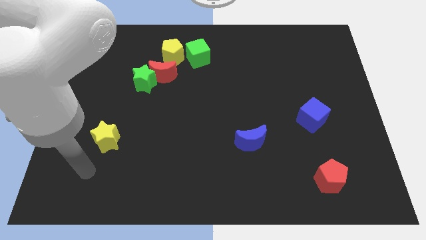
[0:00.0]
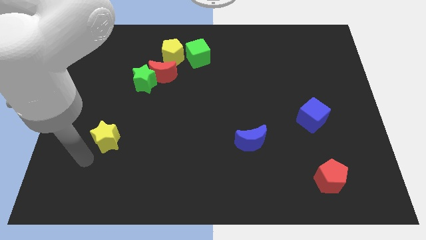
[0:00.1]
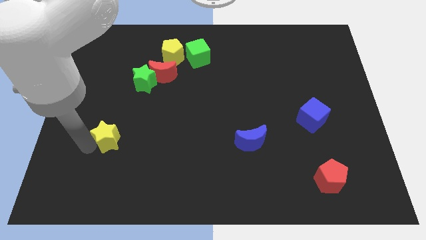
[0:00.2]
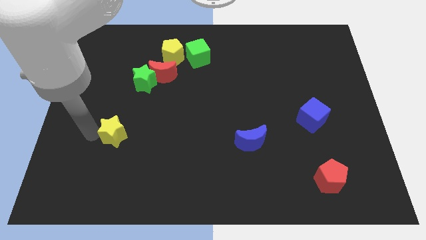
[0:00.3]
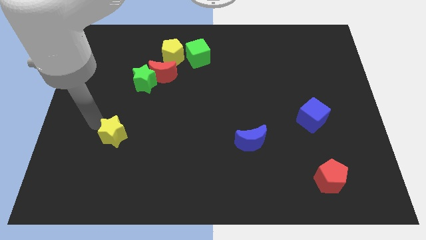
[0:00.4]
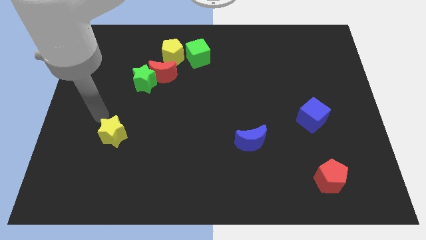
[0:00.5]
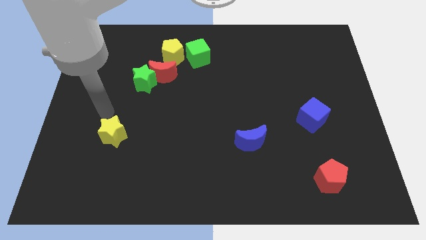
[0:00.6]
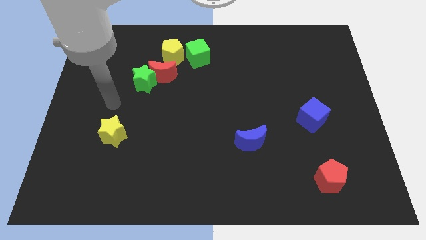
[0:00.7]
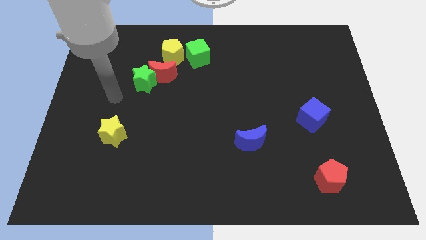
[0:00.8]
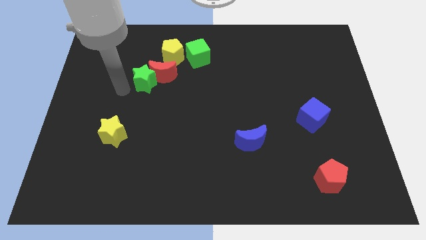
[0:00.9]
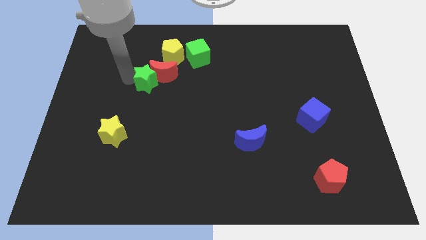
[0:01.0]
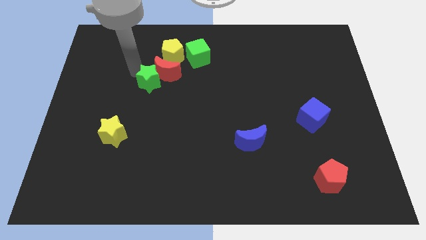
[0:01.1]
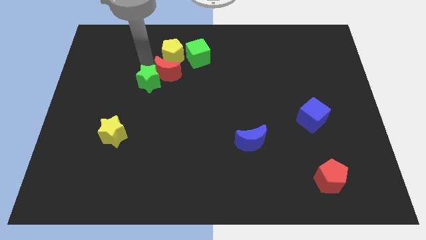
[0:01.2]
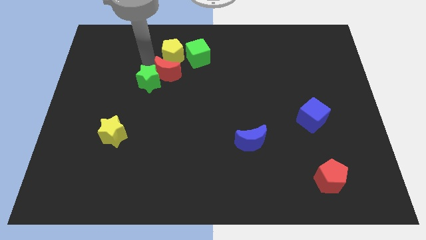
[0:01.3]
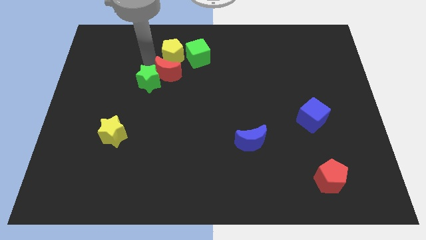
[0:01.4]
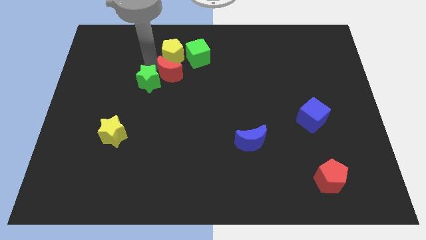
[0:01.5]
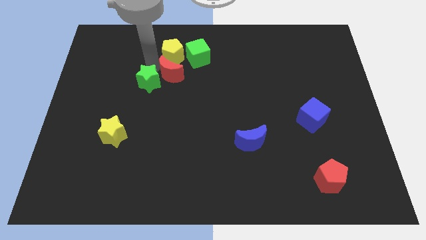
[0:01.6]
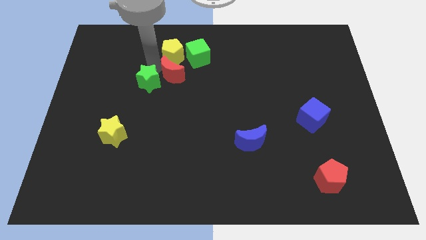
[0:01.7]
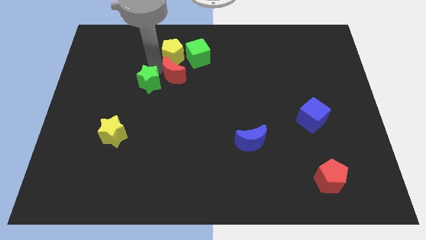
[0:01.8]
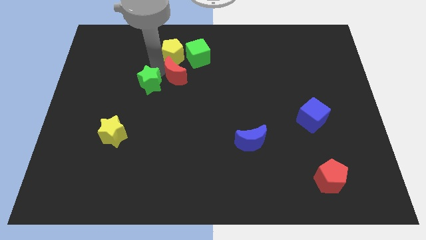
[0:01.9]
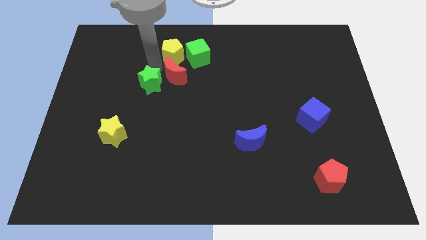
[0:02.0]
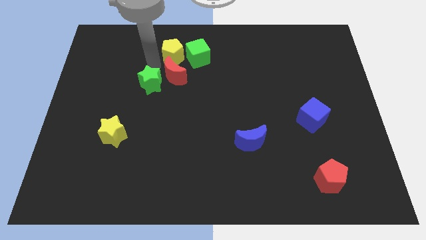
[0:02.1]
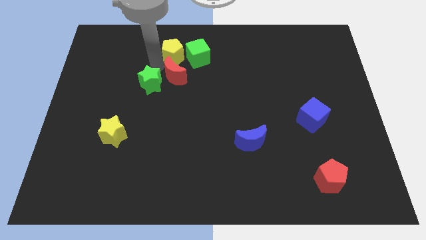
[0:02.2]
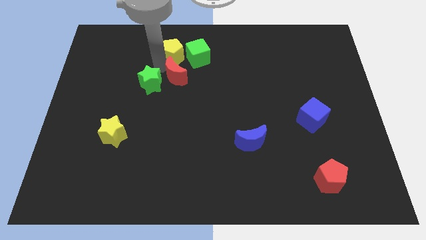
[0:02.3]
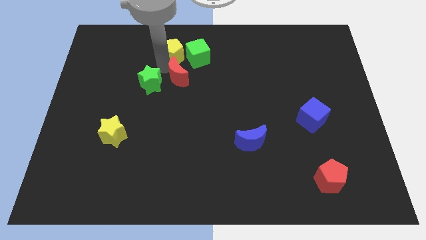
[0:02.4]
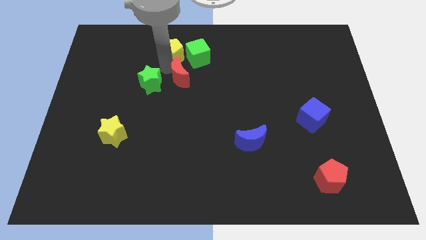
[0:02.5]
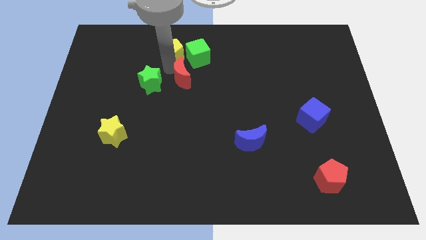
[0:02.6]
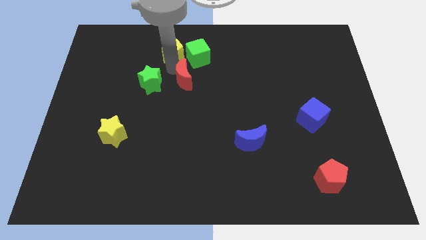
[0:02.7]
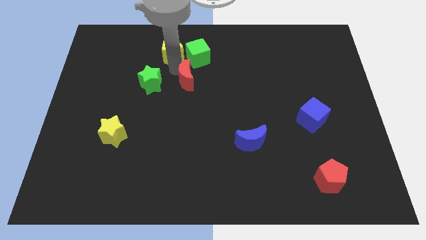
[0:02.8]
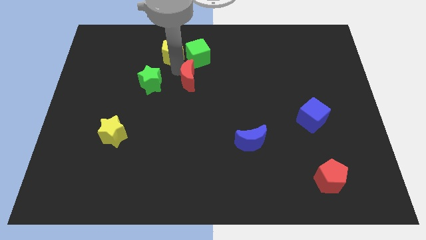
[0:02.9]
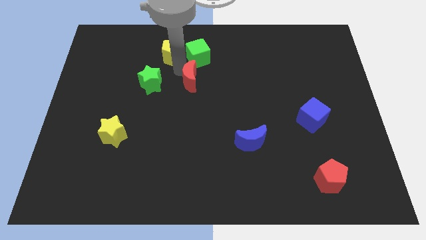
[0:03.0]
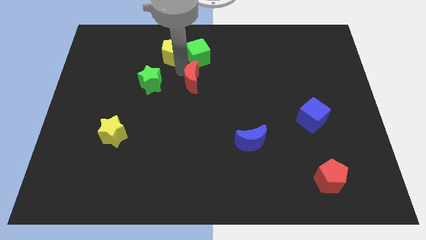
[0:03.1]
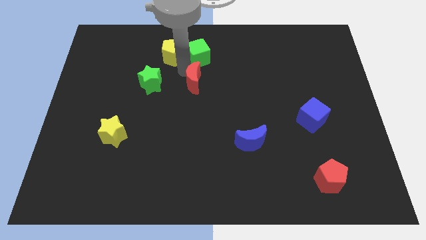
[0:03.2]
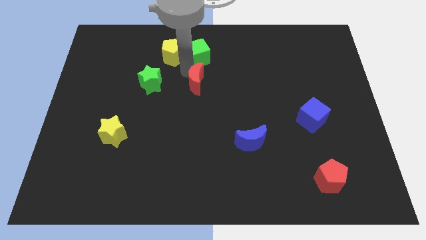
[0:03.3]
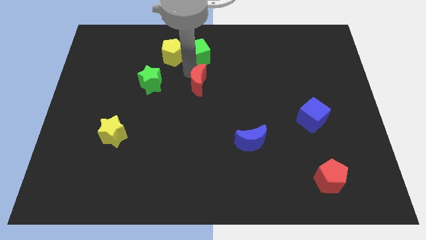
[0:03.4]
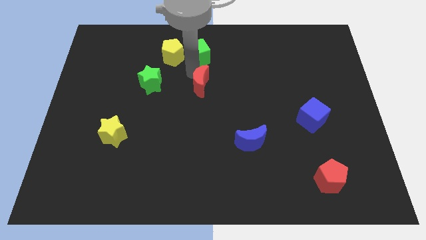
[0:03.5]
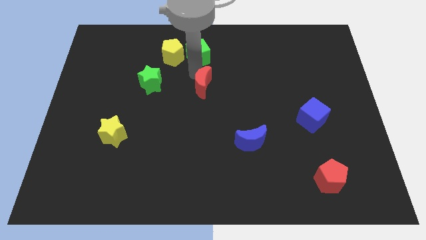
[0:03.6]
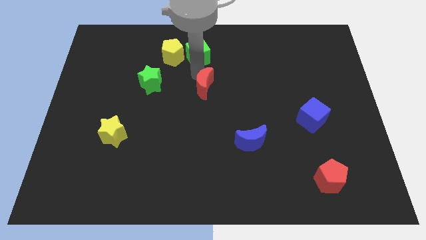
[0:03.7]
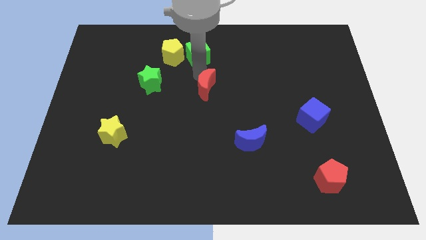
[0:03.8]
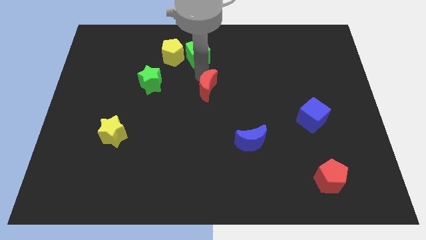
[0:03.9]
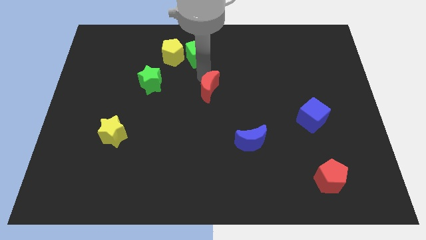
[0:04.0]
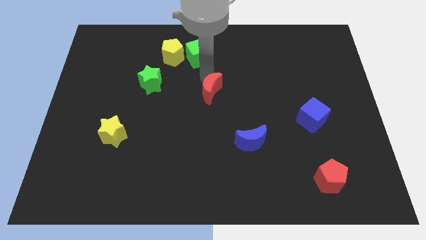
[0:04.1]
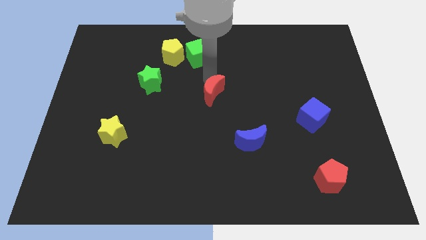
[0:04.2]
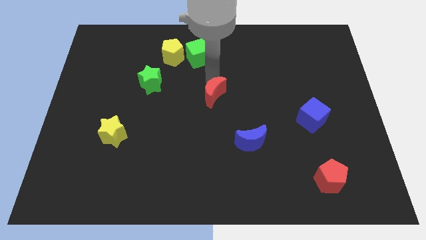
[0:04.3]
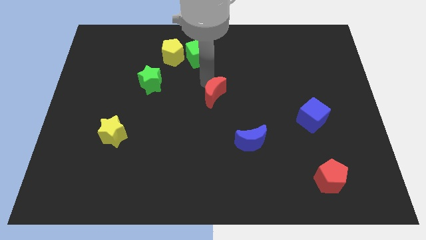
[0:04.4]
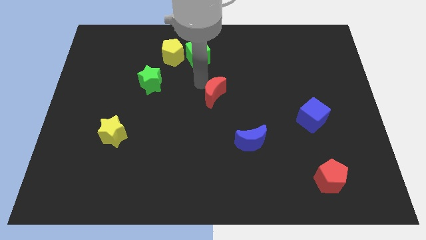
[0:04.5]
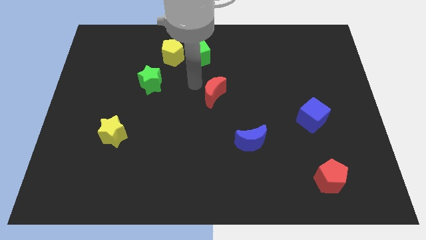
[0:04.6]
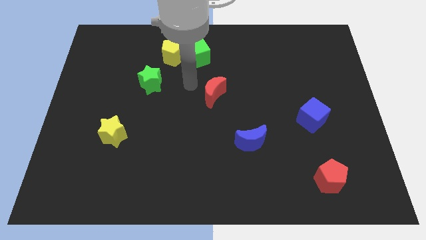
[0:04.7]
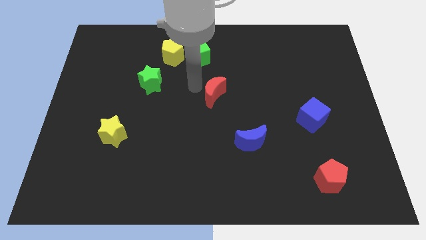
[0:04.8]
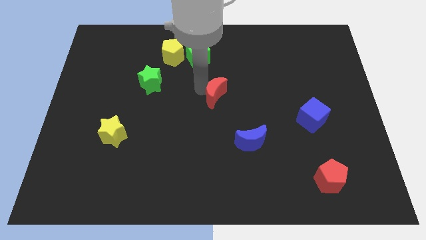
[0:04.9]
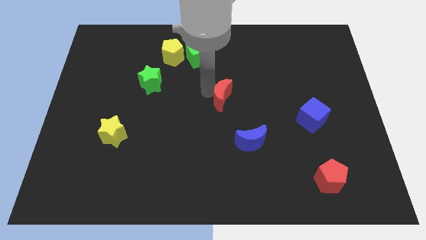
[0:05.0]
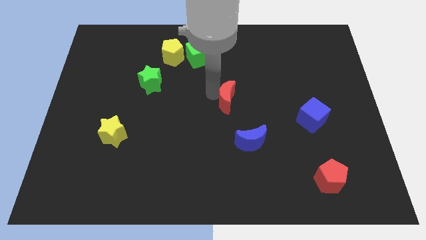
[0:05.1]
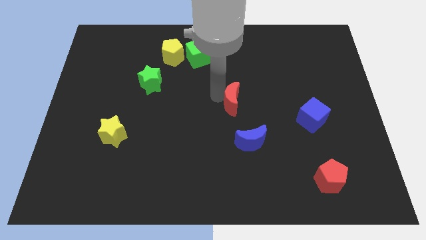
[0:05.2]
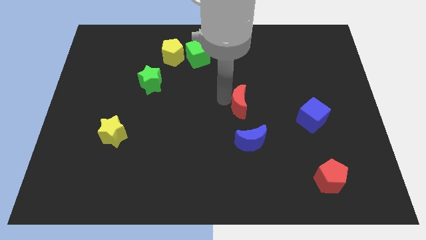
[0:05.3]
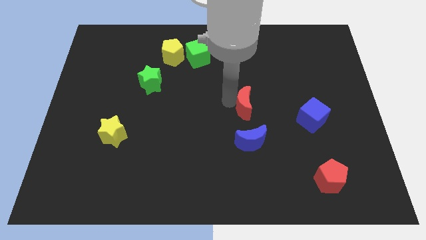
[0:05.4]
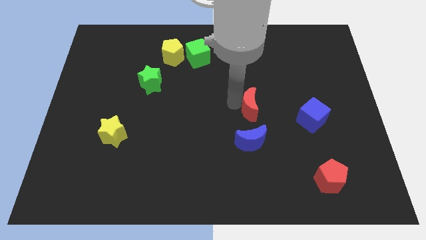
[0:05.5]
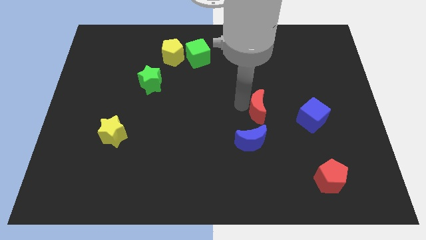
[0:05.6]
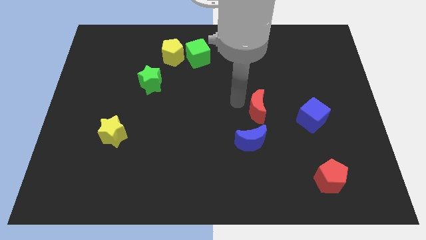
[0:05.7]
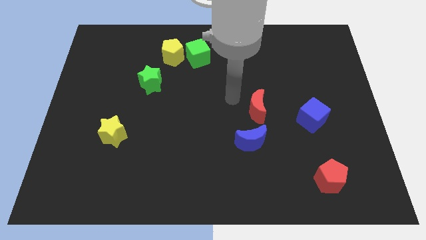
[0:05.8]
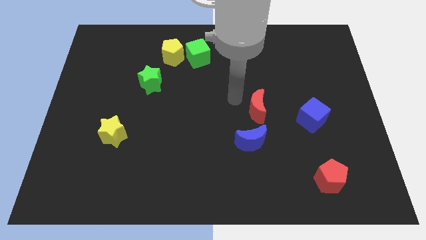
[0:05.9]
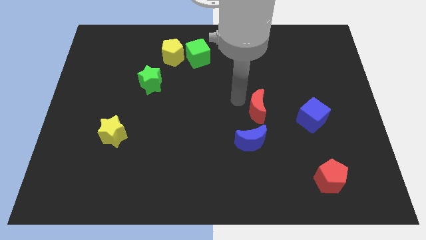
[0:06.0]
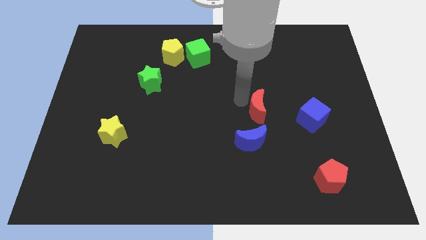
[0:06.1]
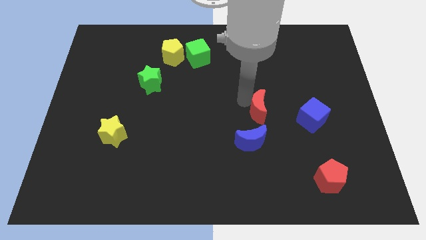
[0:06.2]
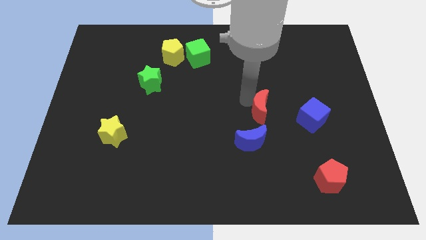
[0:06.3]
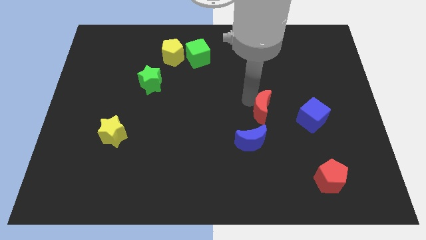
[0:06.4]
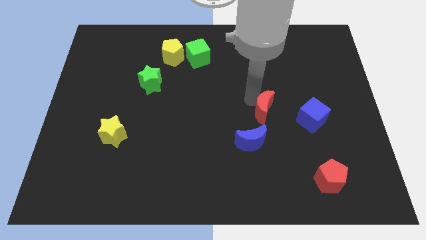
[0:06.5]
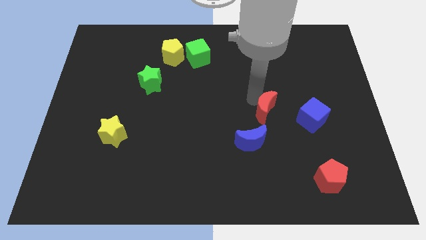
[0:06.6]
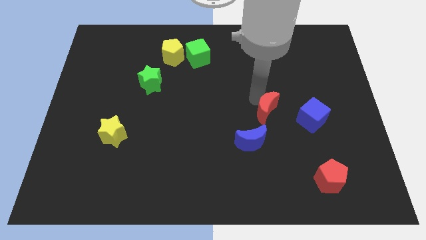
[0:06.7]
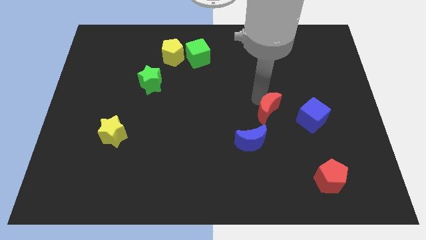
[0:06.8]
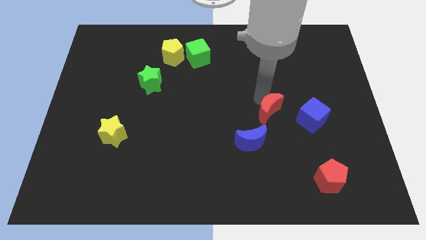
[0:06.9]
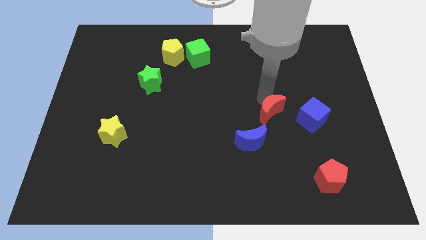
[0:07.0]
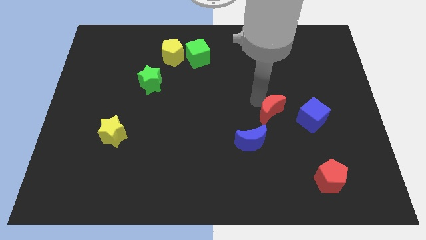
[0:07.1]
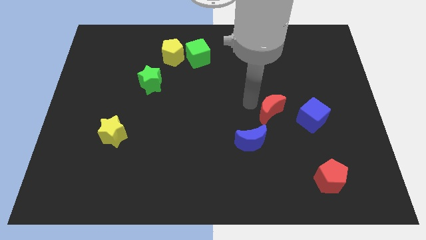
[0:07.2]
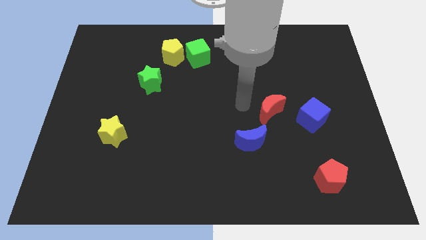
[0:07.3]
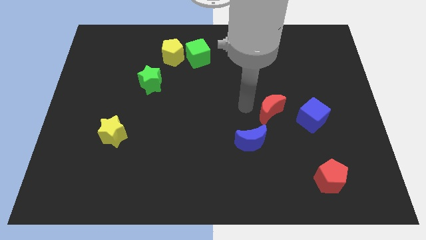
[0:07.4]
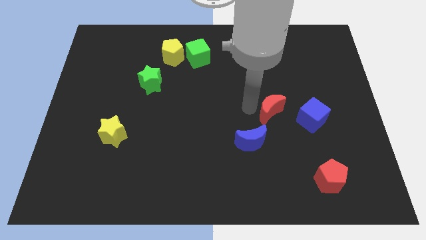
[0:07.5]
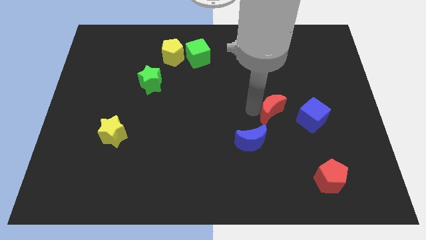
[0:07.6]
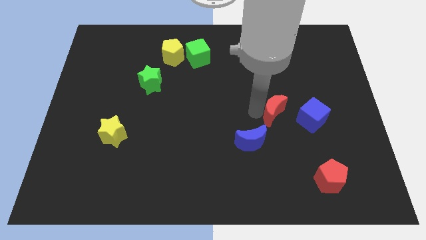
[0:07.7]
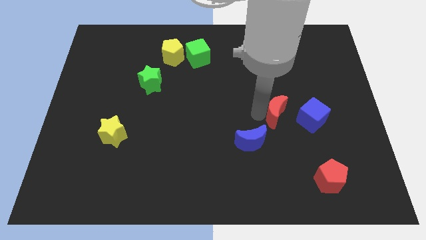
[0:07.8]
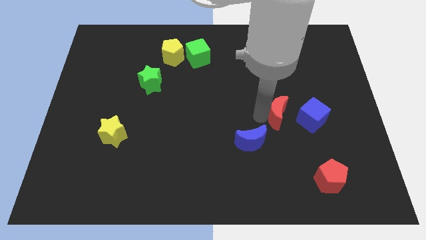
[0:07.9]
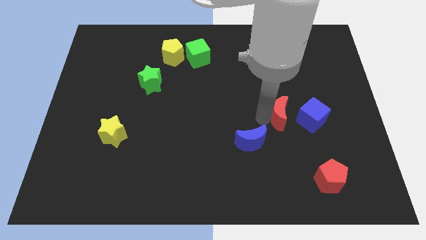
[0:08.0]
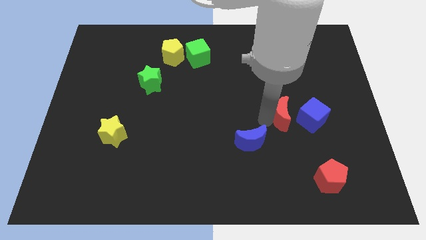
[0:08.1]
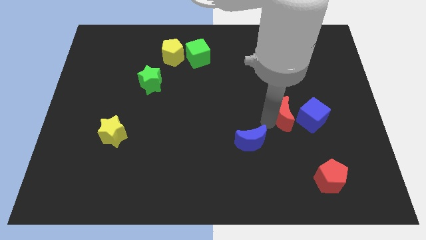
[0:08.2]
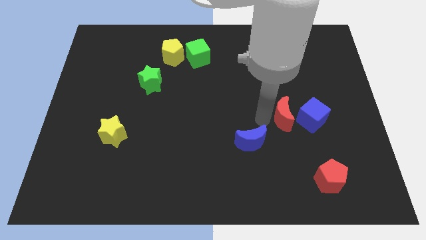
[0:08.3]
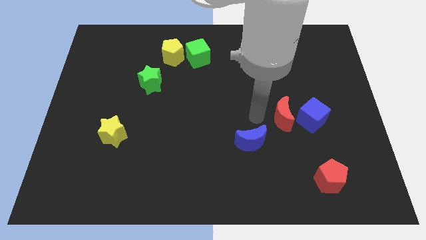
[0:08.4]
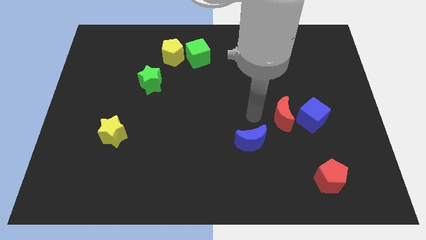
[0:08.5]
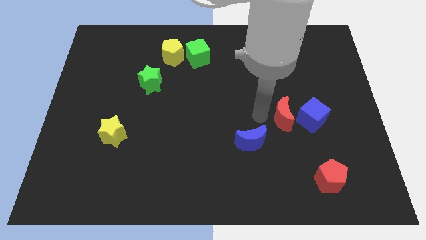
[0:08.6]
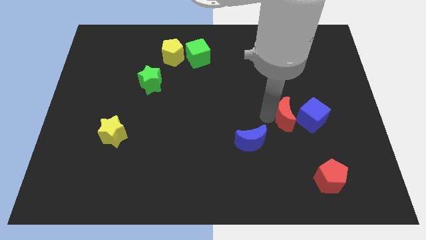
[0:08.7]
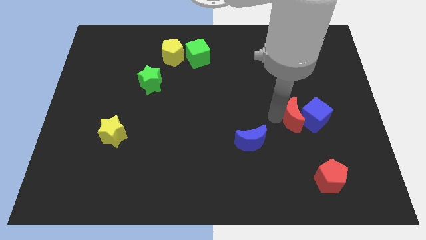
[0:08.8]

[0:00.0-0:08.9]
slide the red moon to the blue cube
